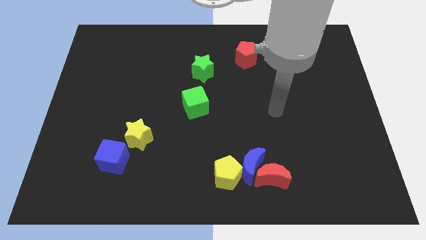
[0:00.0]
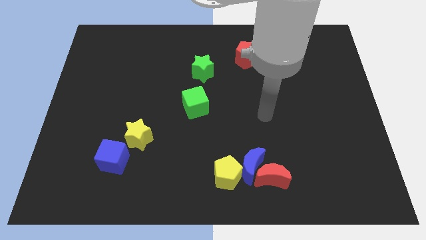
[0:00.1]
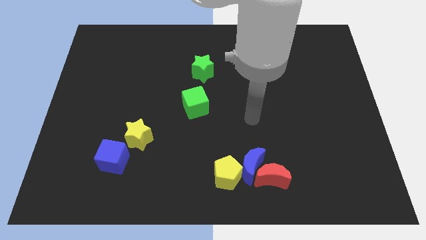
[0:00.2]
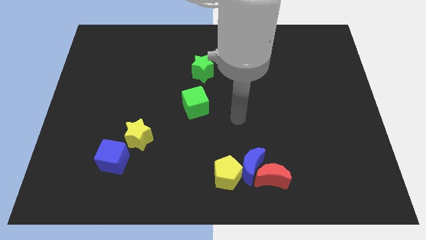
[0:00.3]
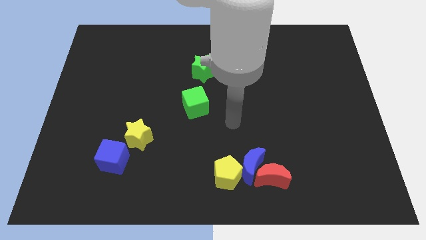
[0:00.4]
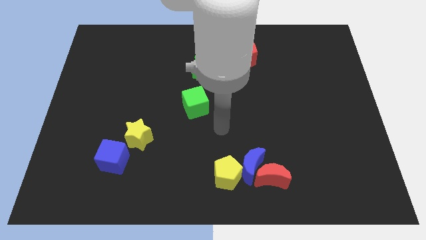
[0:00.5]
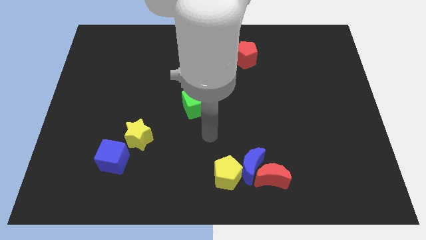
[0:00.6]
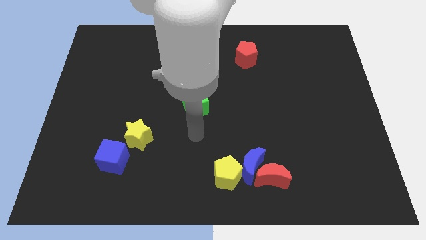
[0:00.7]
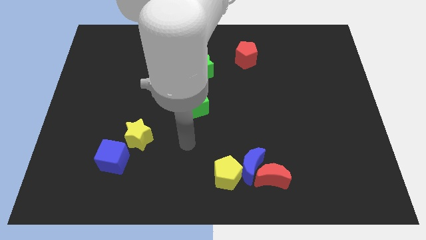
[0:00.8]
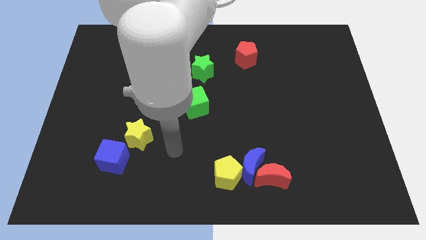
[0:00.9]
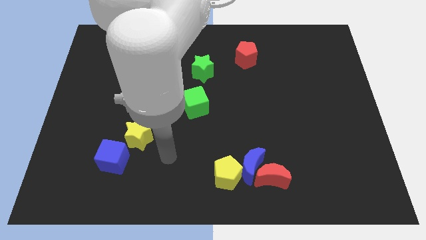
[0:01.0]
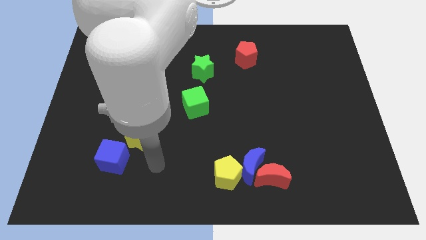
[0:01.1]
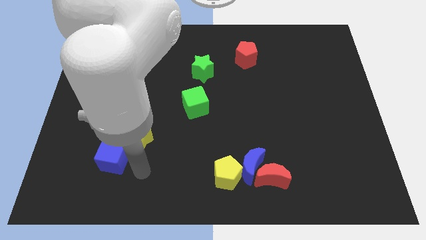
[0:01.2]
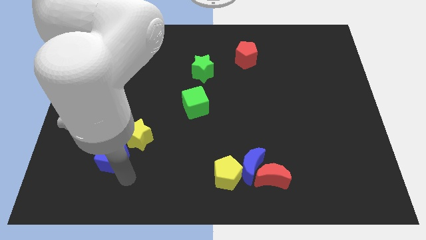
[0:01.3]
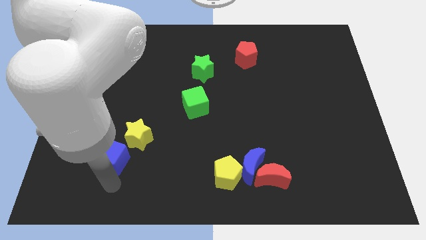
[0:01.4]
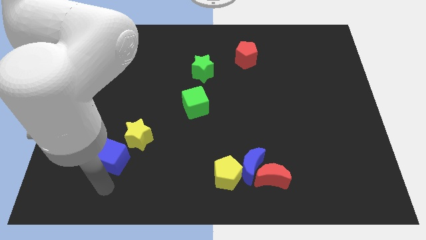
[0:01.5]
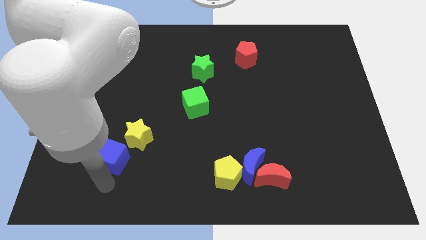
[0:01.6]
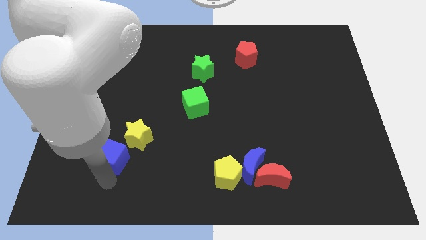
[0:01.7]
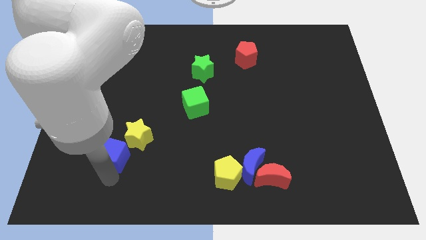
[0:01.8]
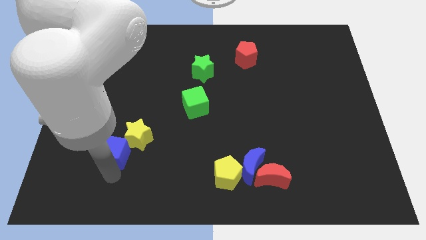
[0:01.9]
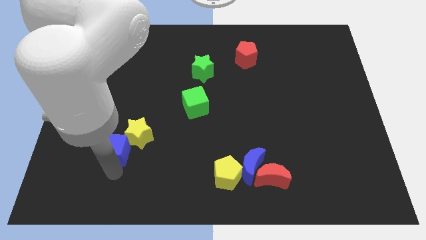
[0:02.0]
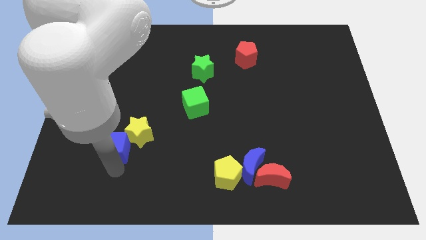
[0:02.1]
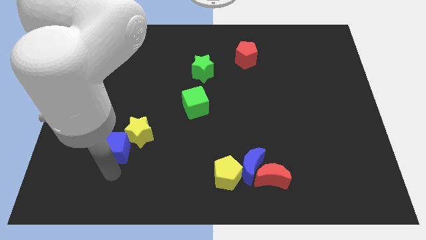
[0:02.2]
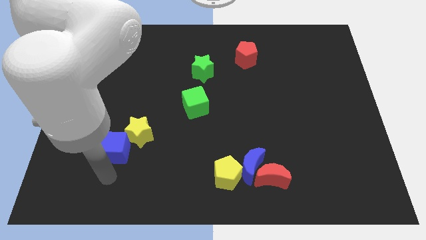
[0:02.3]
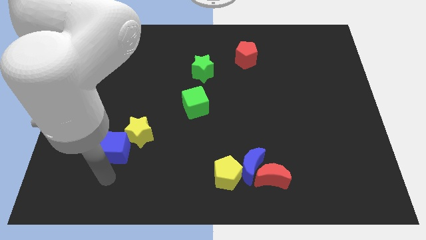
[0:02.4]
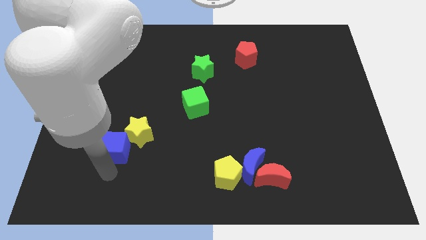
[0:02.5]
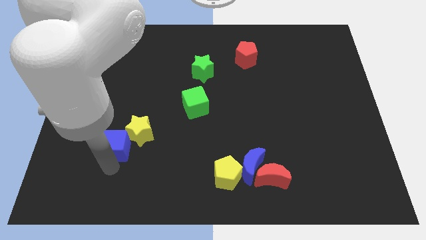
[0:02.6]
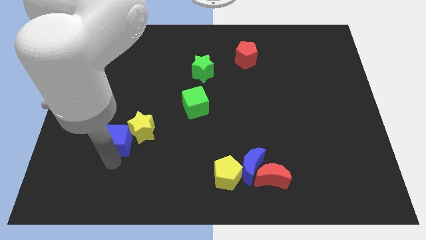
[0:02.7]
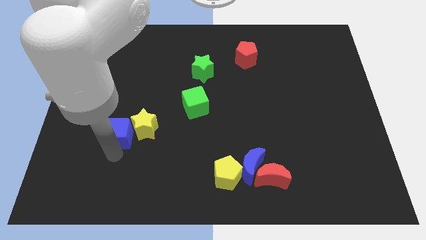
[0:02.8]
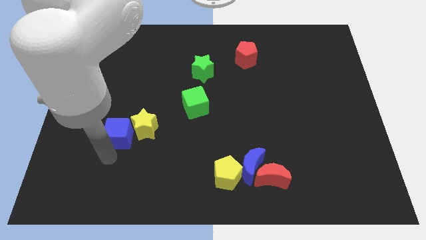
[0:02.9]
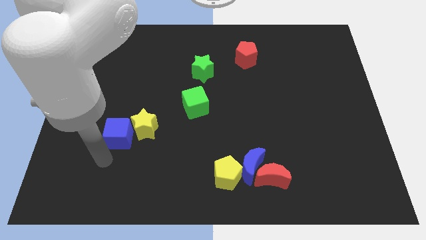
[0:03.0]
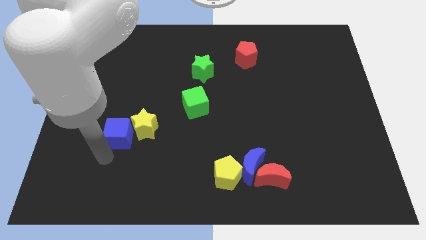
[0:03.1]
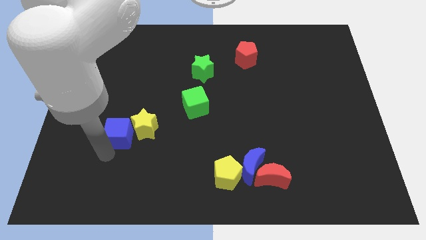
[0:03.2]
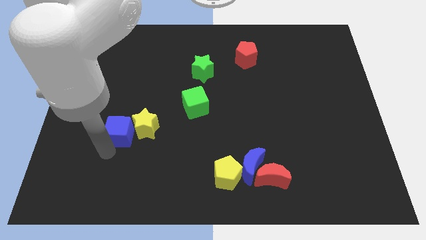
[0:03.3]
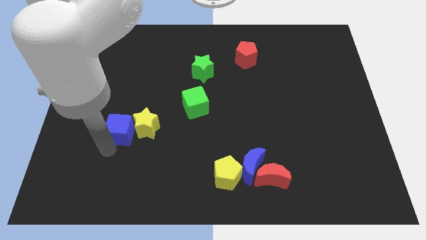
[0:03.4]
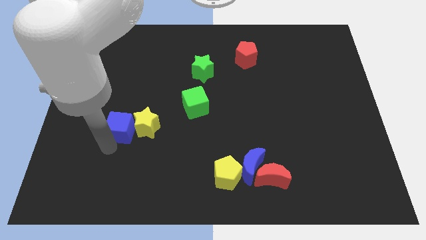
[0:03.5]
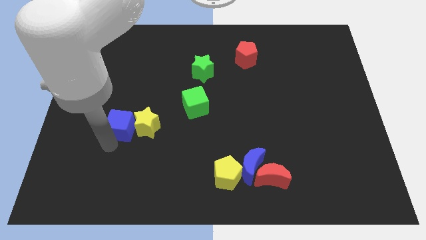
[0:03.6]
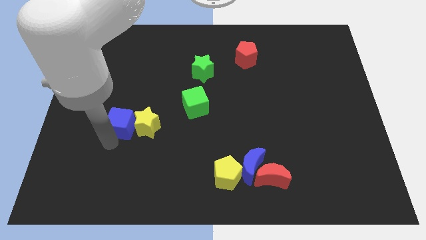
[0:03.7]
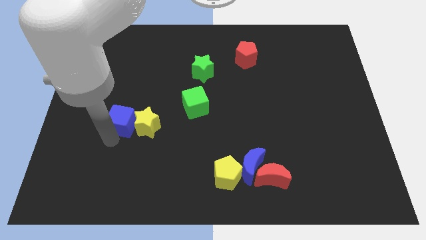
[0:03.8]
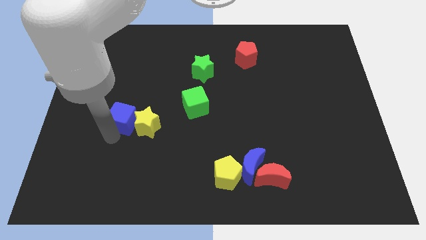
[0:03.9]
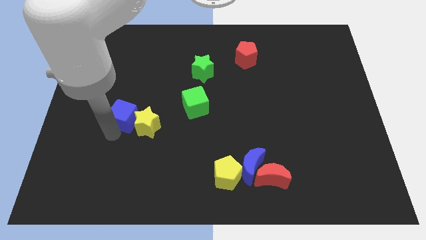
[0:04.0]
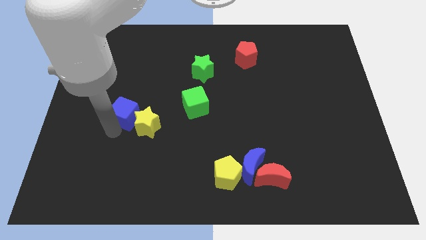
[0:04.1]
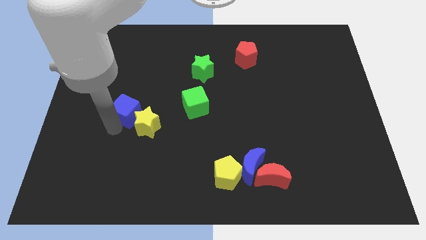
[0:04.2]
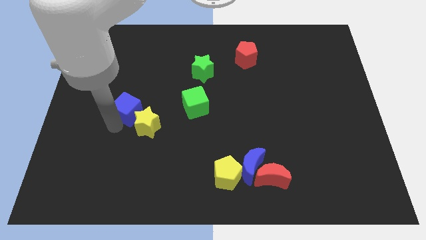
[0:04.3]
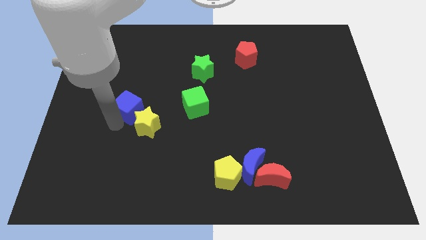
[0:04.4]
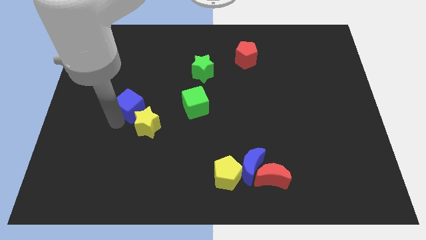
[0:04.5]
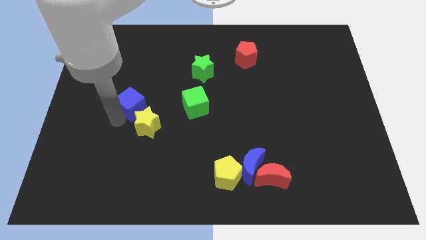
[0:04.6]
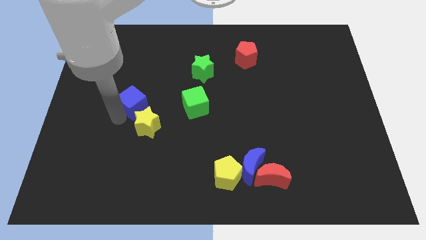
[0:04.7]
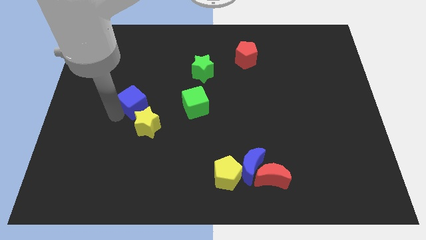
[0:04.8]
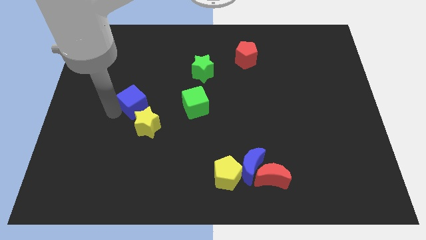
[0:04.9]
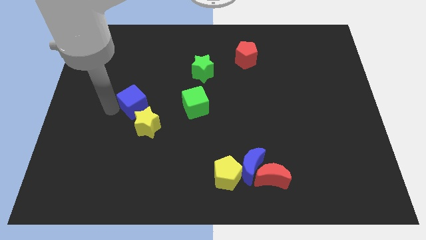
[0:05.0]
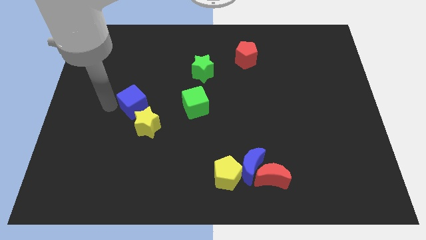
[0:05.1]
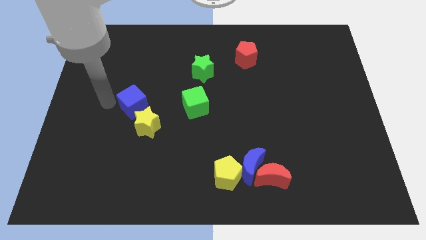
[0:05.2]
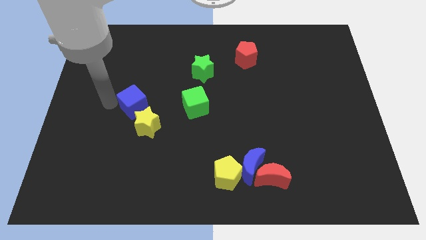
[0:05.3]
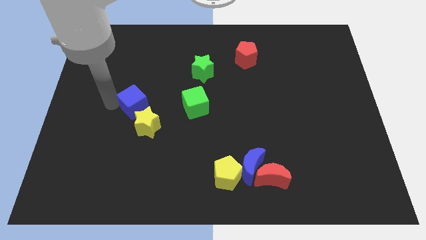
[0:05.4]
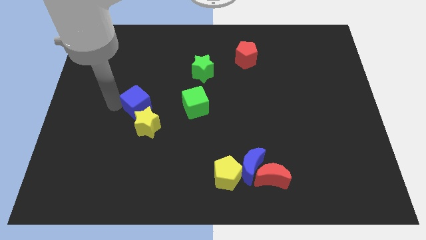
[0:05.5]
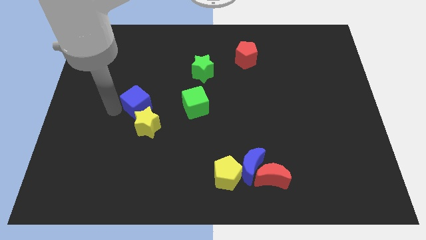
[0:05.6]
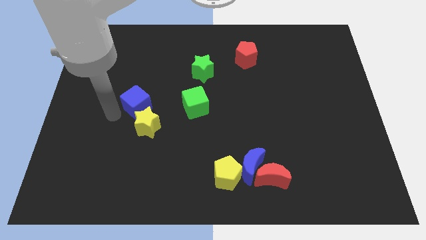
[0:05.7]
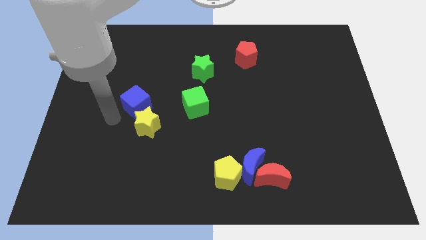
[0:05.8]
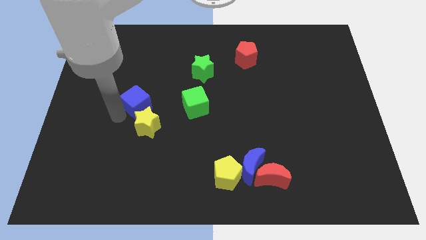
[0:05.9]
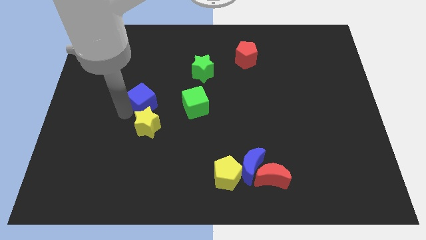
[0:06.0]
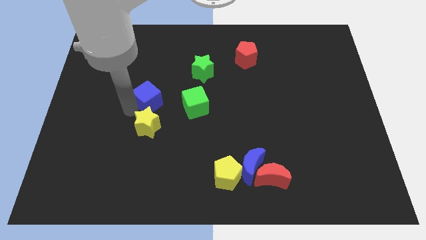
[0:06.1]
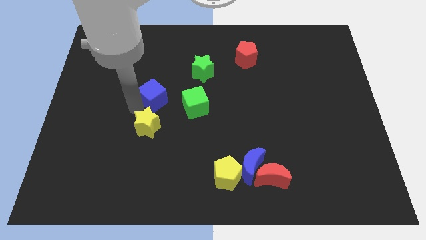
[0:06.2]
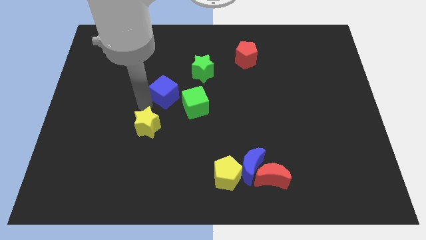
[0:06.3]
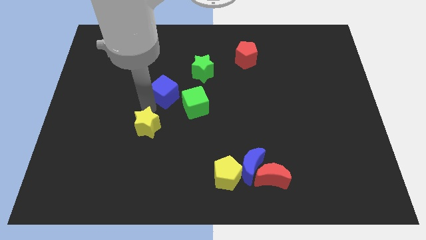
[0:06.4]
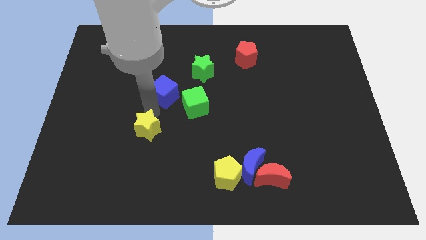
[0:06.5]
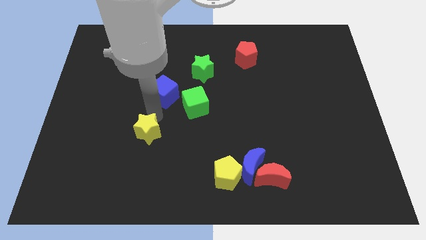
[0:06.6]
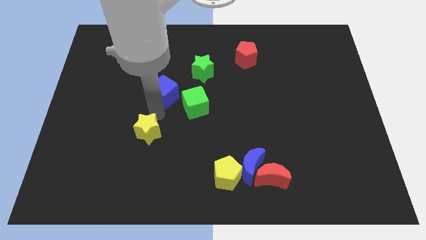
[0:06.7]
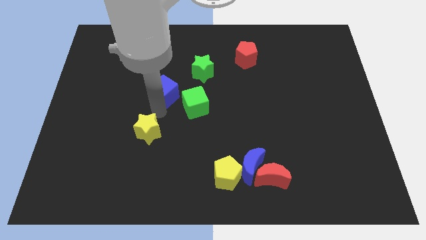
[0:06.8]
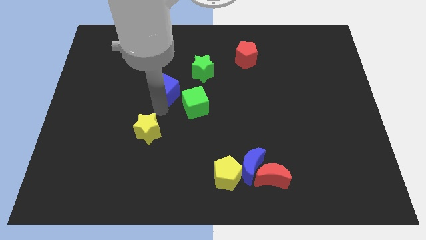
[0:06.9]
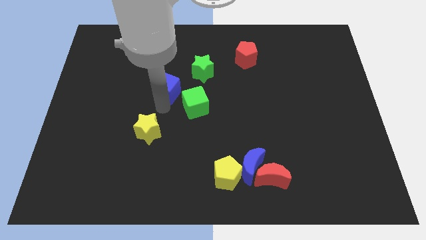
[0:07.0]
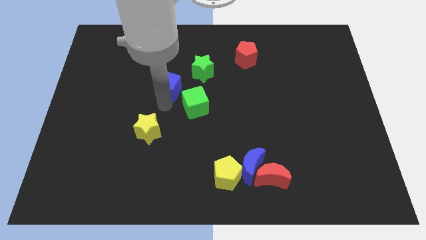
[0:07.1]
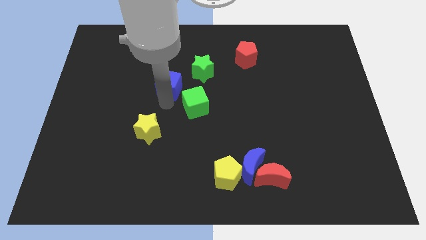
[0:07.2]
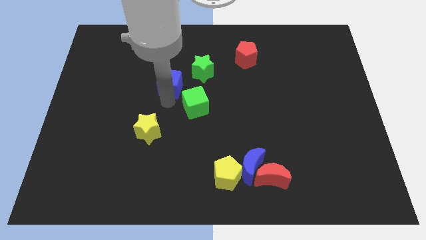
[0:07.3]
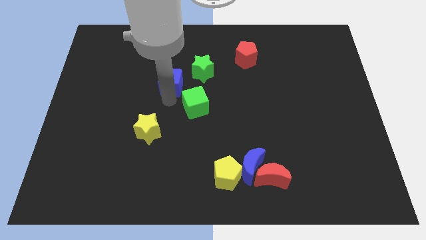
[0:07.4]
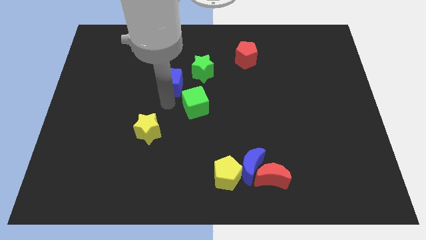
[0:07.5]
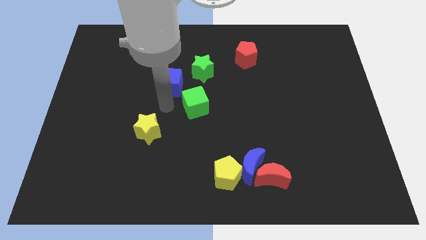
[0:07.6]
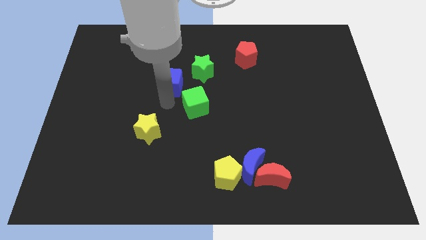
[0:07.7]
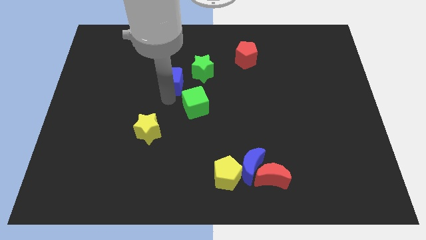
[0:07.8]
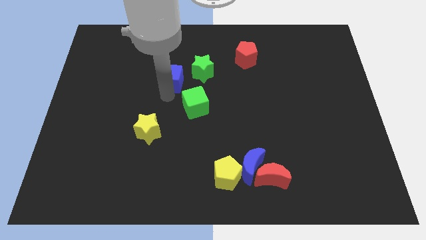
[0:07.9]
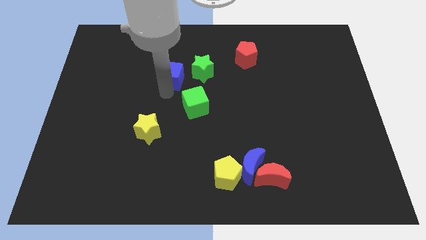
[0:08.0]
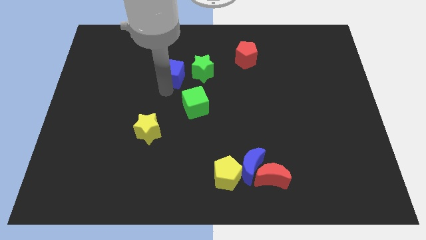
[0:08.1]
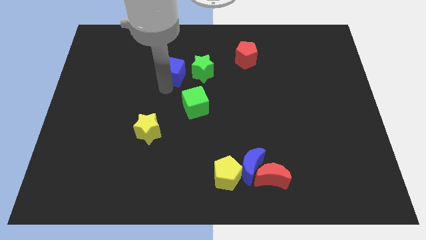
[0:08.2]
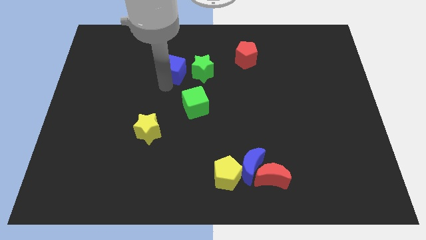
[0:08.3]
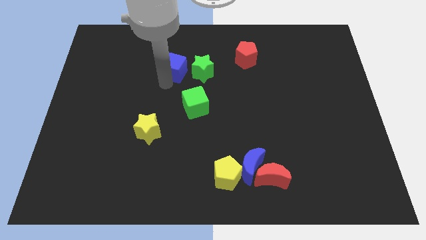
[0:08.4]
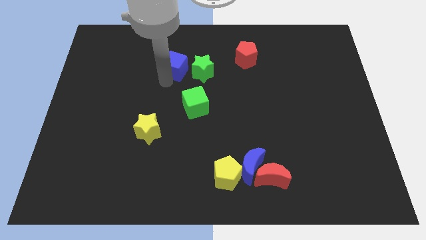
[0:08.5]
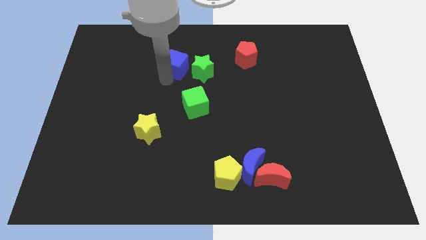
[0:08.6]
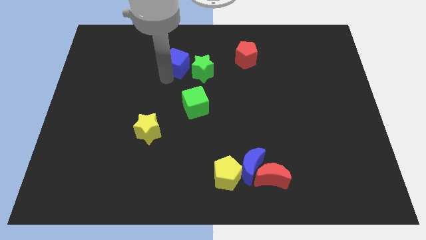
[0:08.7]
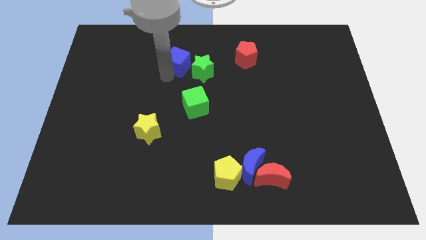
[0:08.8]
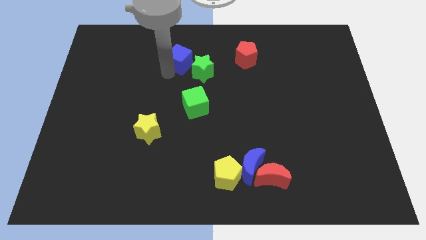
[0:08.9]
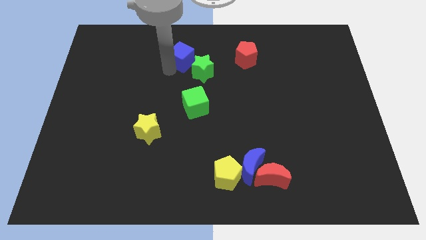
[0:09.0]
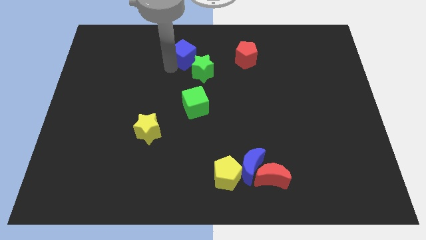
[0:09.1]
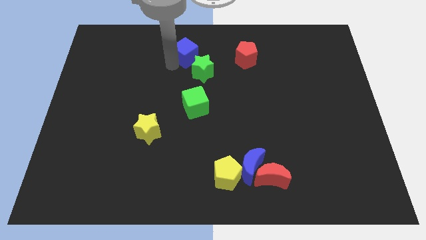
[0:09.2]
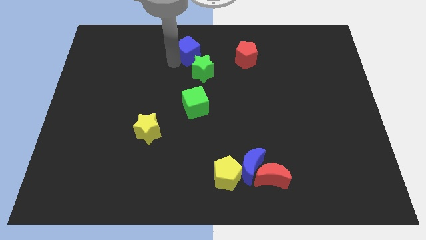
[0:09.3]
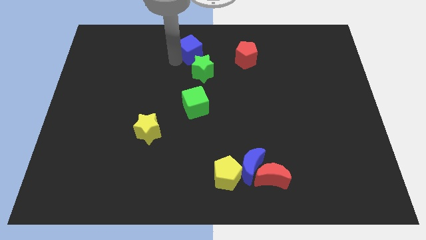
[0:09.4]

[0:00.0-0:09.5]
put the blue cube to the towards your base
